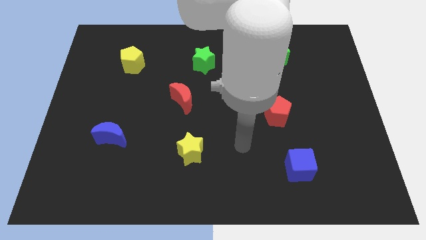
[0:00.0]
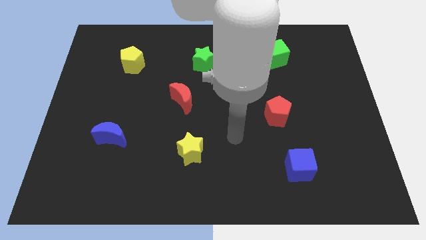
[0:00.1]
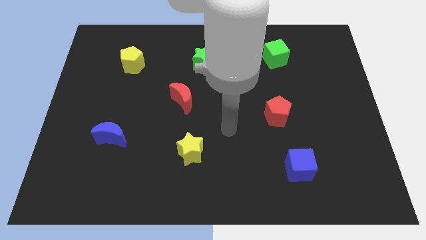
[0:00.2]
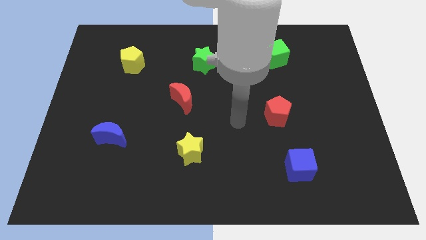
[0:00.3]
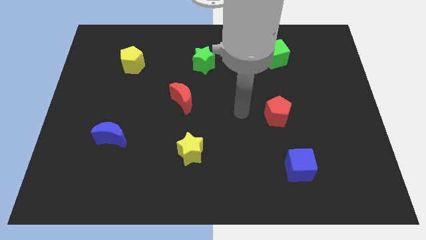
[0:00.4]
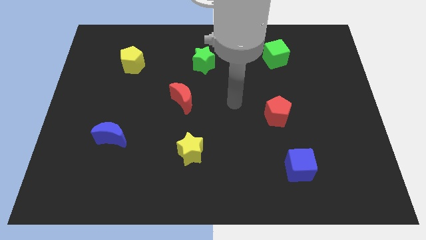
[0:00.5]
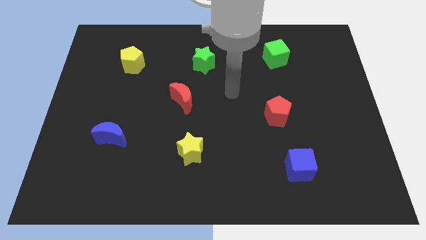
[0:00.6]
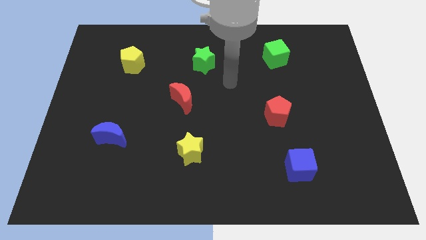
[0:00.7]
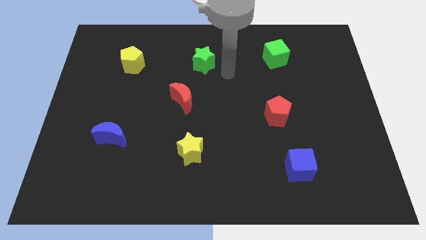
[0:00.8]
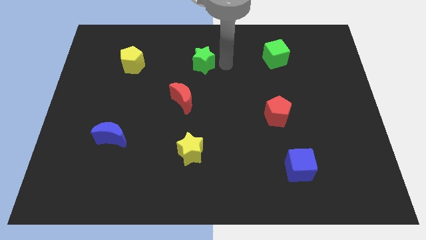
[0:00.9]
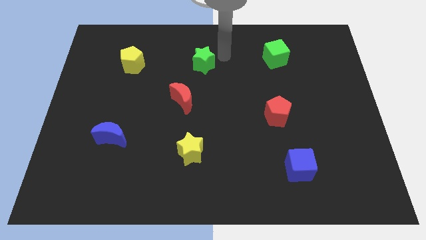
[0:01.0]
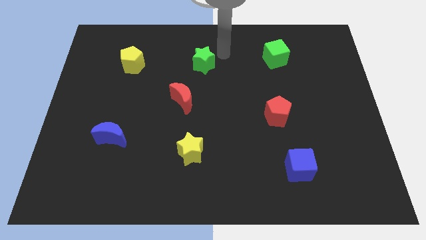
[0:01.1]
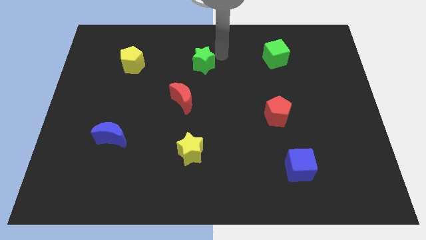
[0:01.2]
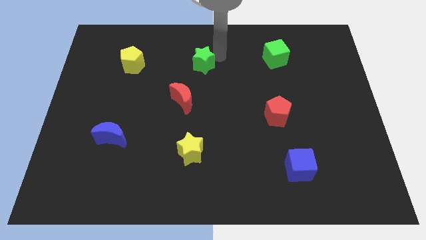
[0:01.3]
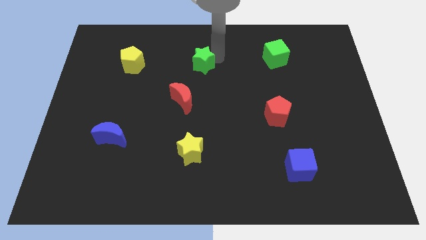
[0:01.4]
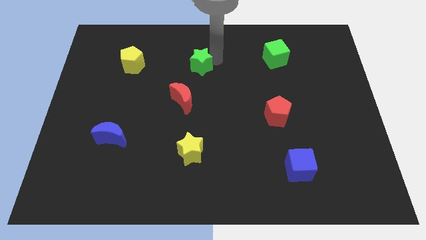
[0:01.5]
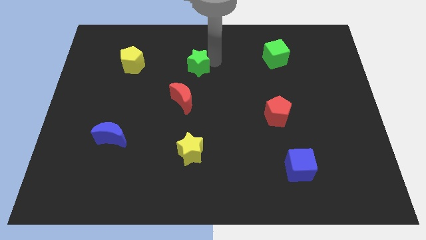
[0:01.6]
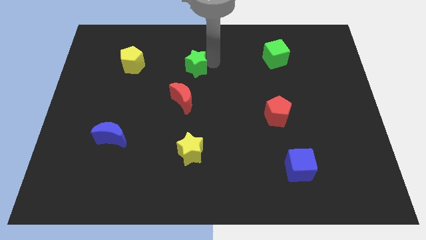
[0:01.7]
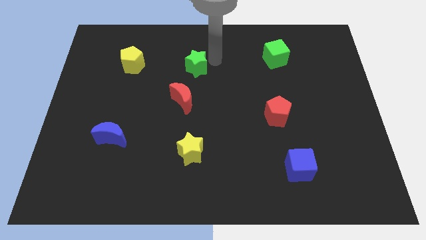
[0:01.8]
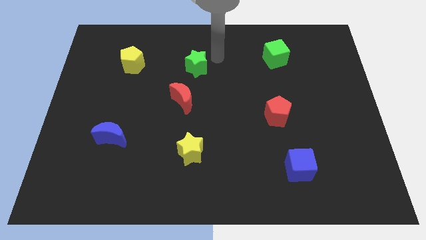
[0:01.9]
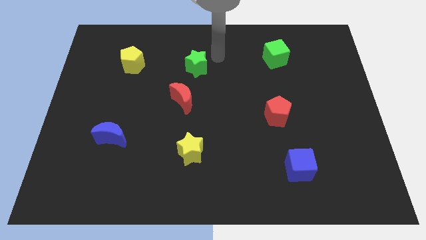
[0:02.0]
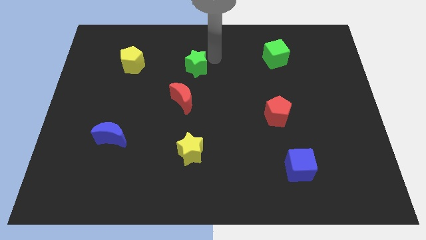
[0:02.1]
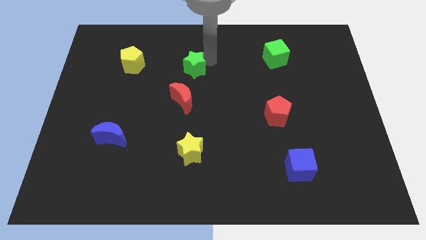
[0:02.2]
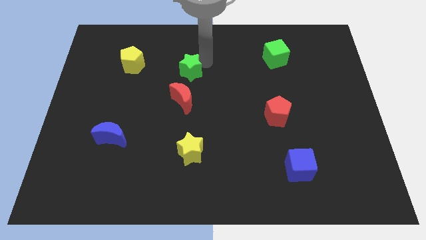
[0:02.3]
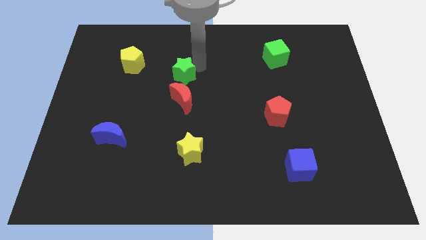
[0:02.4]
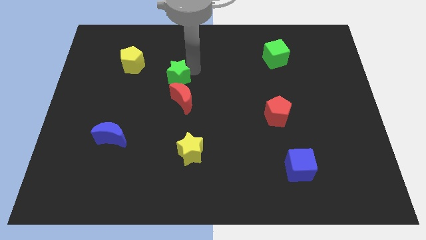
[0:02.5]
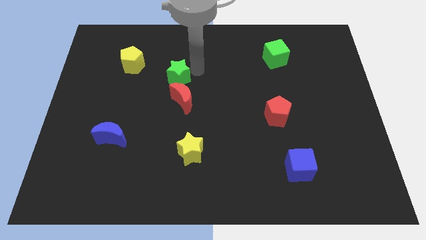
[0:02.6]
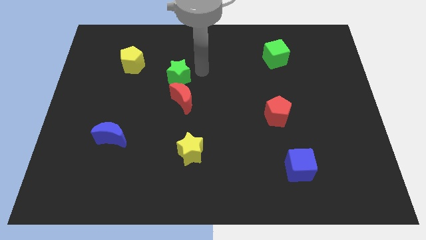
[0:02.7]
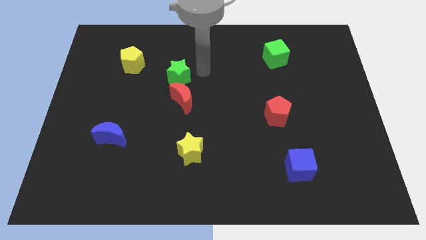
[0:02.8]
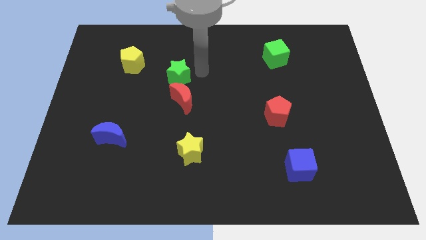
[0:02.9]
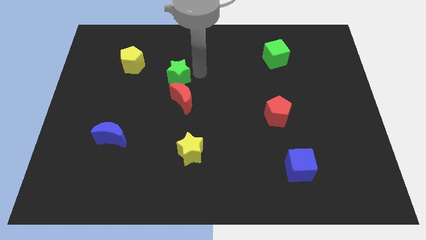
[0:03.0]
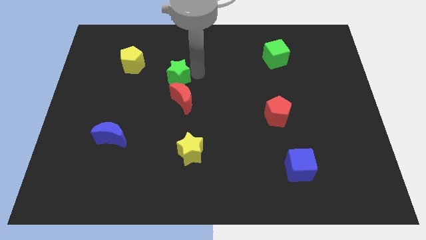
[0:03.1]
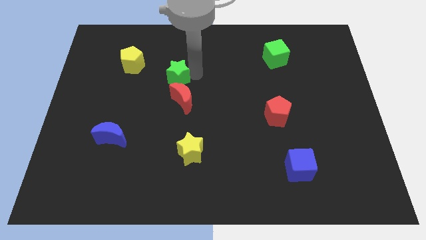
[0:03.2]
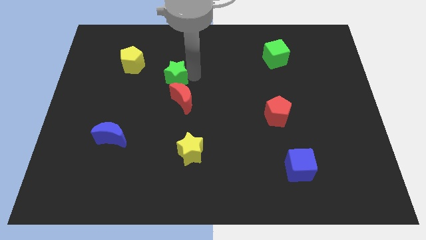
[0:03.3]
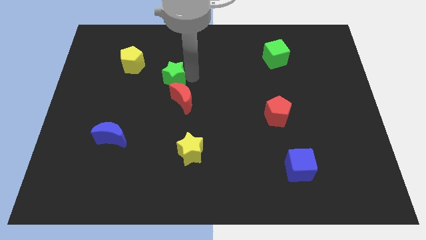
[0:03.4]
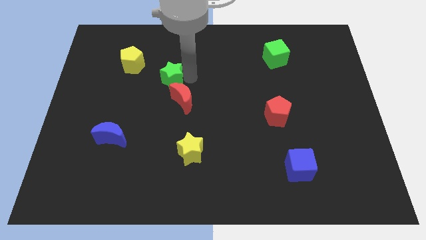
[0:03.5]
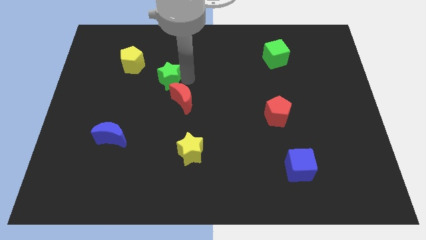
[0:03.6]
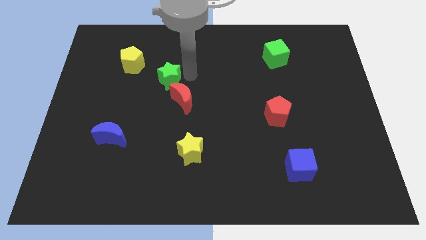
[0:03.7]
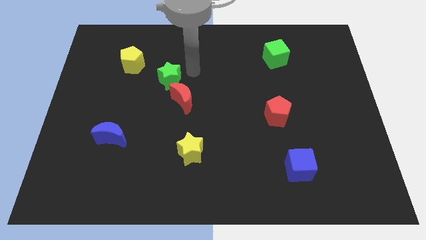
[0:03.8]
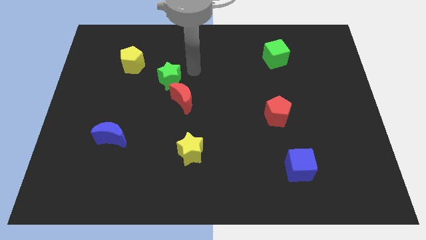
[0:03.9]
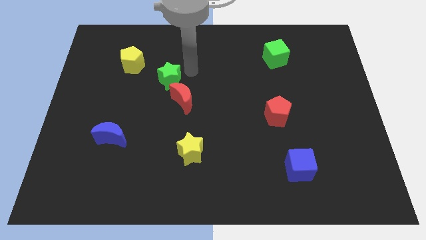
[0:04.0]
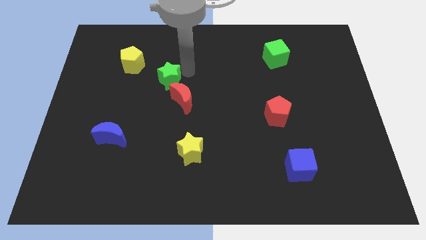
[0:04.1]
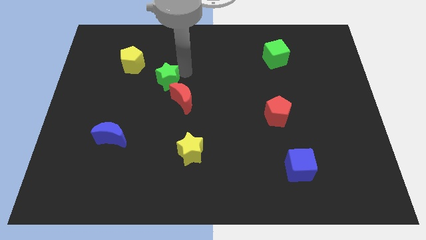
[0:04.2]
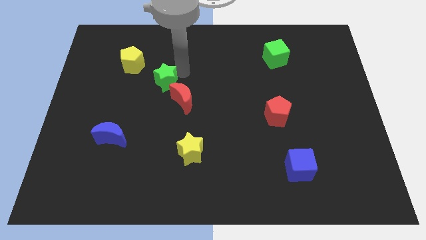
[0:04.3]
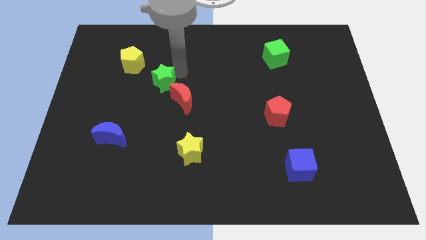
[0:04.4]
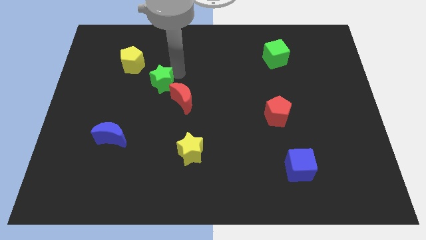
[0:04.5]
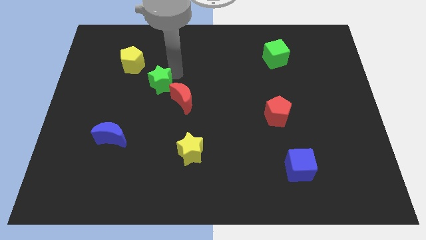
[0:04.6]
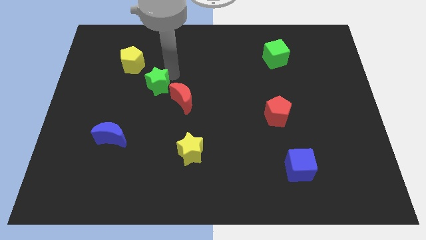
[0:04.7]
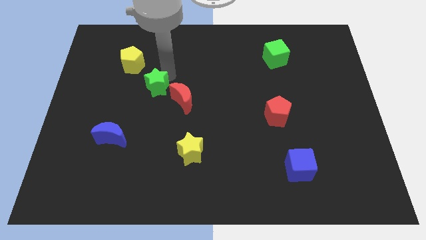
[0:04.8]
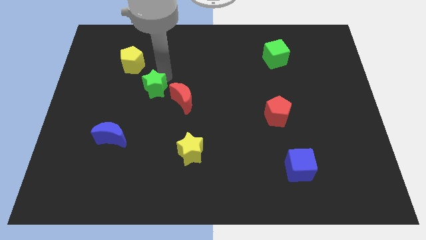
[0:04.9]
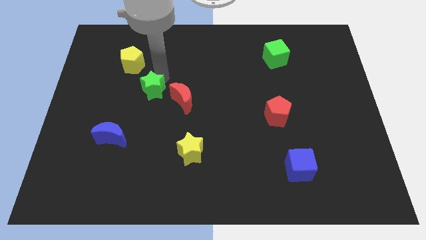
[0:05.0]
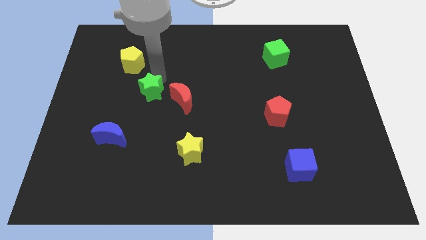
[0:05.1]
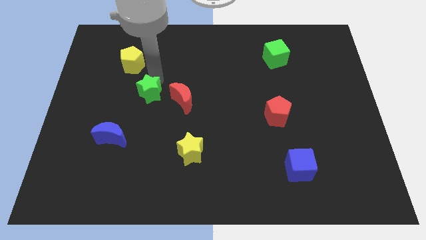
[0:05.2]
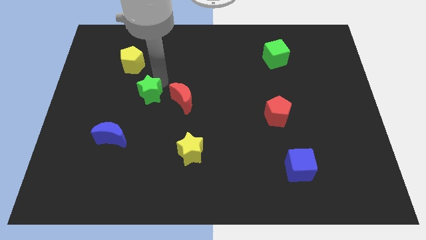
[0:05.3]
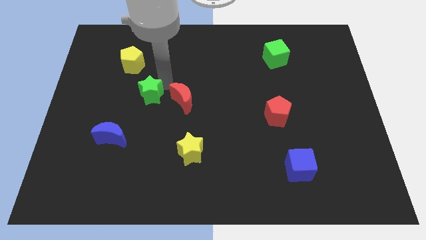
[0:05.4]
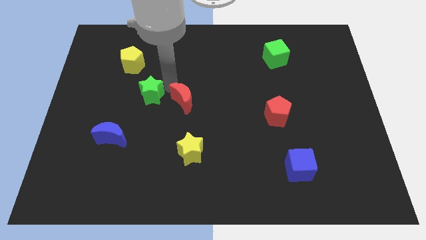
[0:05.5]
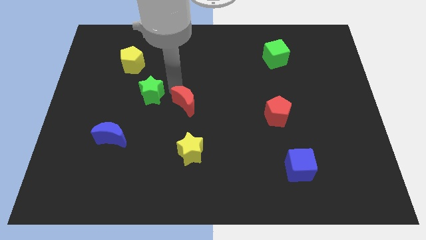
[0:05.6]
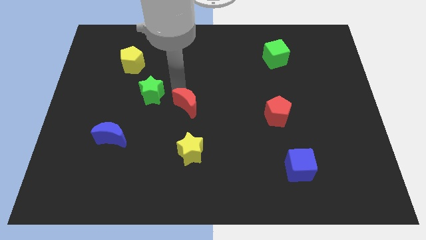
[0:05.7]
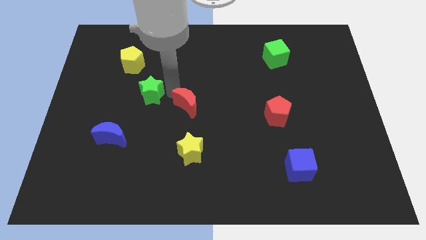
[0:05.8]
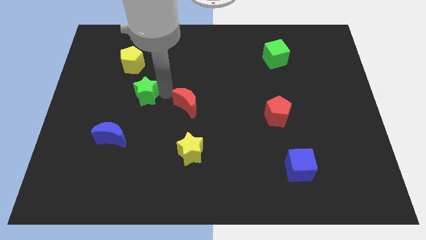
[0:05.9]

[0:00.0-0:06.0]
move the green star to the bottom of the yellow pentagon

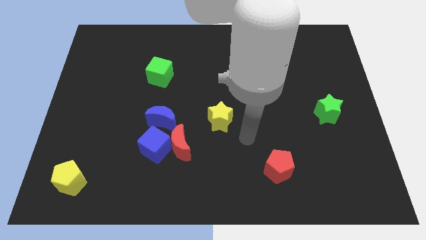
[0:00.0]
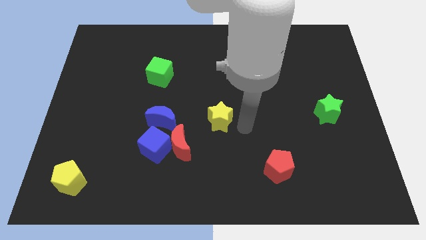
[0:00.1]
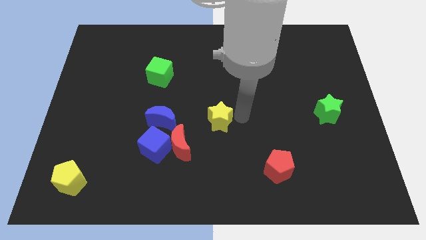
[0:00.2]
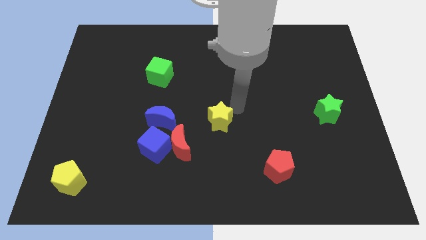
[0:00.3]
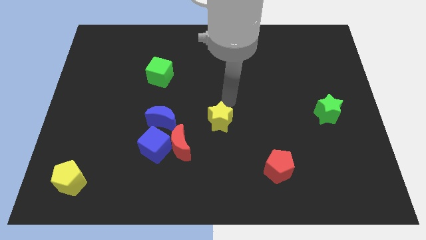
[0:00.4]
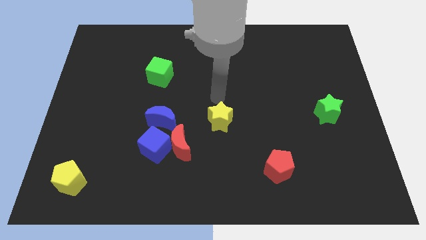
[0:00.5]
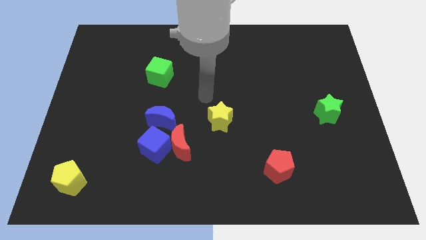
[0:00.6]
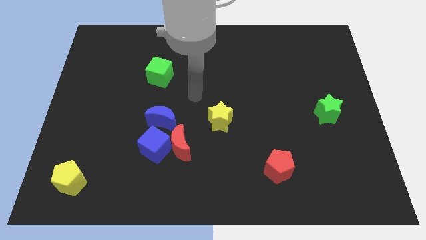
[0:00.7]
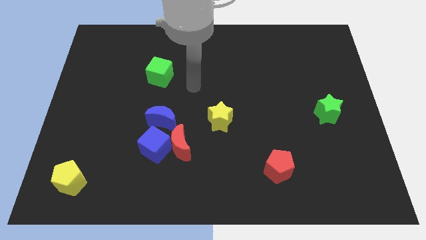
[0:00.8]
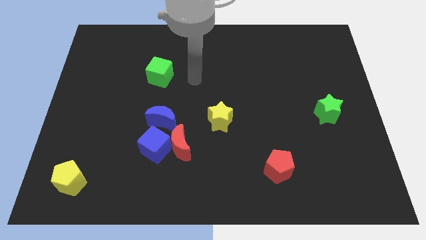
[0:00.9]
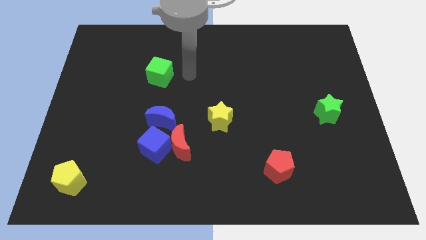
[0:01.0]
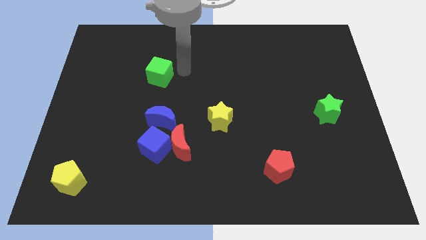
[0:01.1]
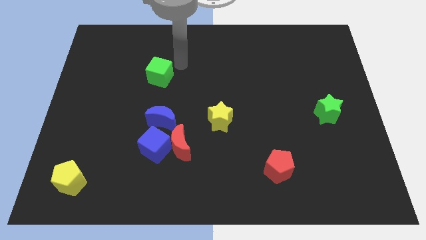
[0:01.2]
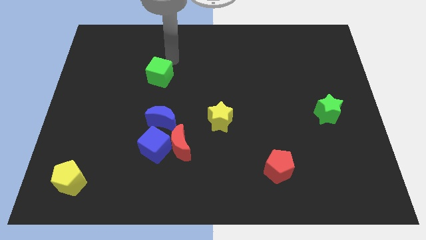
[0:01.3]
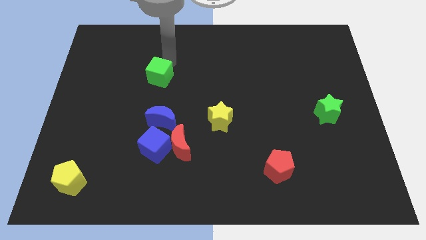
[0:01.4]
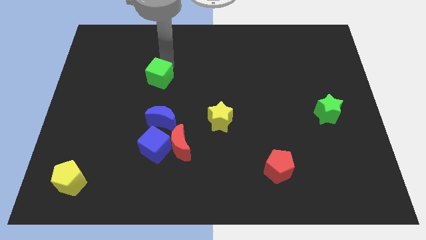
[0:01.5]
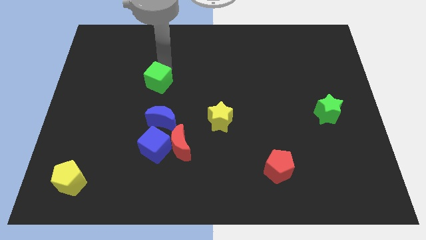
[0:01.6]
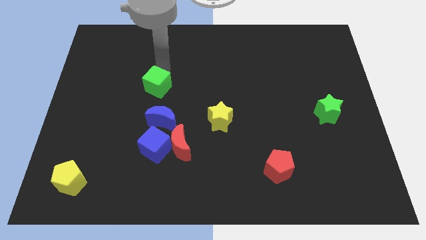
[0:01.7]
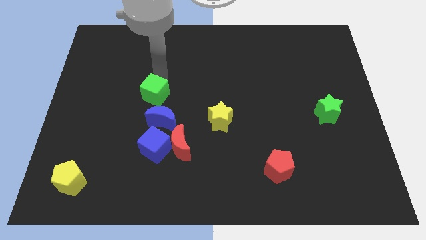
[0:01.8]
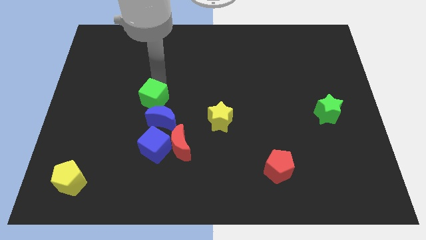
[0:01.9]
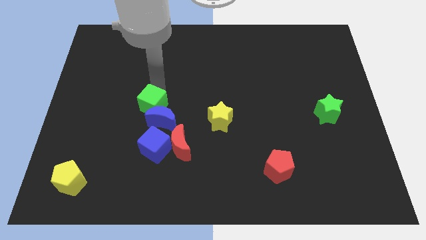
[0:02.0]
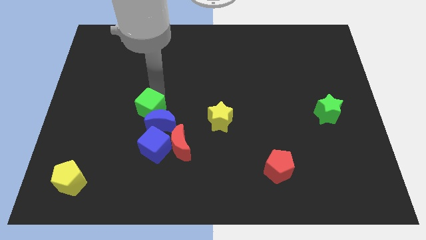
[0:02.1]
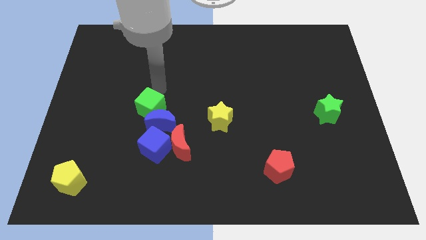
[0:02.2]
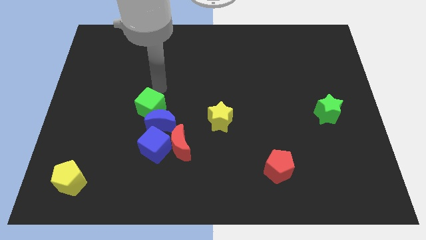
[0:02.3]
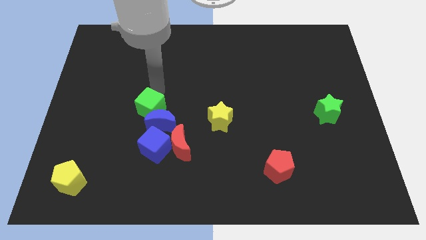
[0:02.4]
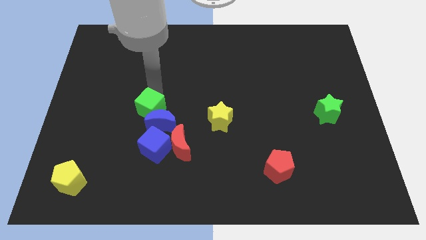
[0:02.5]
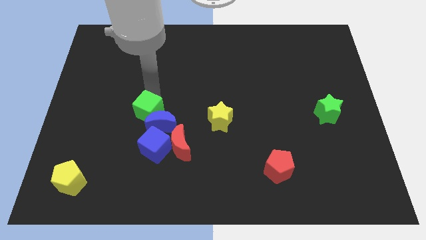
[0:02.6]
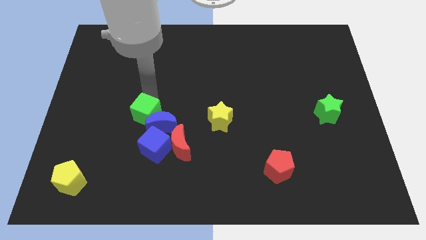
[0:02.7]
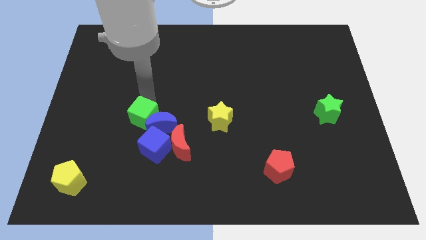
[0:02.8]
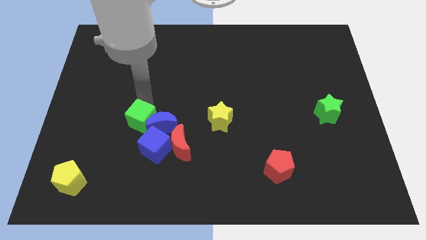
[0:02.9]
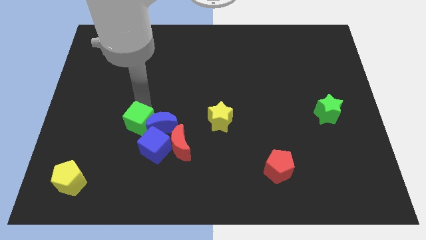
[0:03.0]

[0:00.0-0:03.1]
slide the green cube to the bottom left of the blue moon
